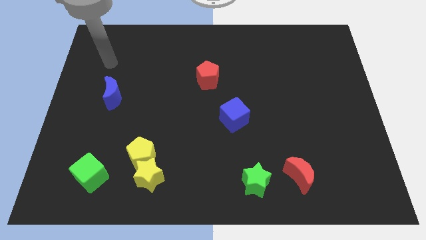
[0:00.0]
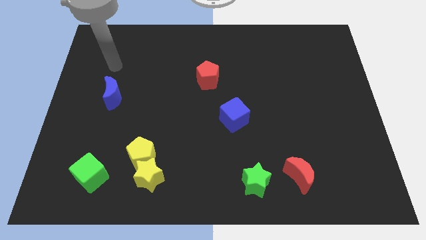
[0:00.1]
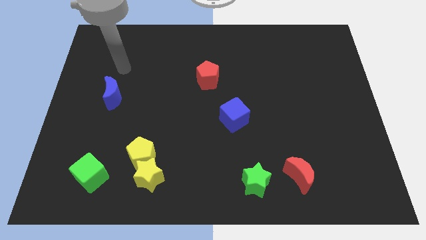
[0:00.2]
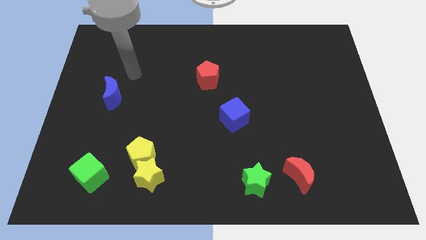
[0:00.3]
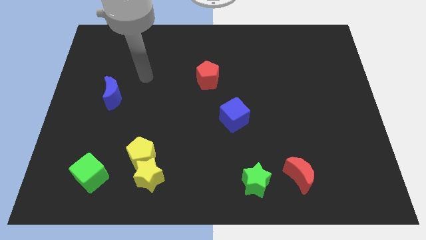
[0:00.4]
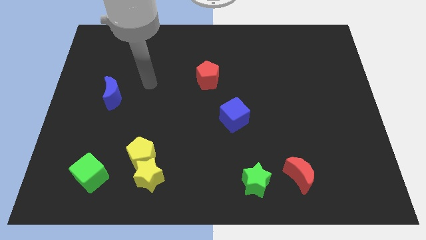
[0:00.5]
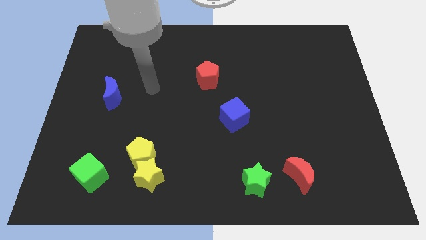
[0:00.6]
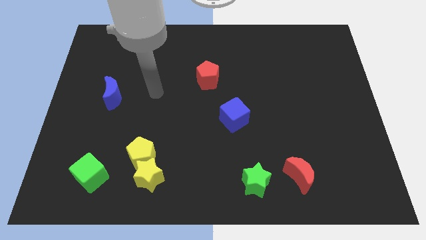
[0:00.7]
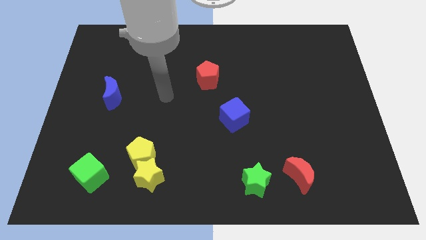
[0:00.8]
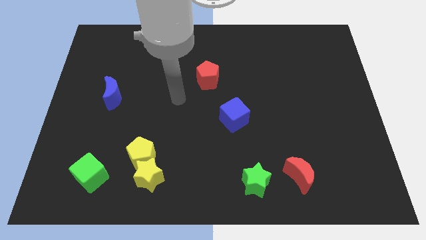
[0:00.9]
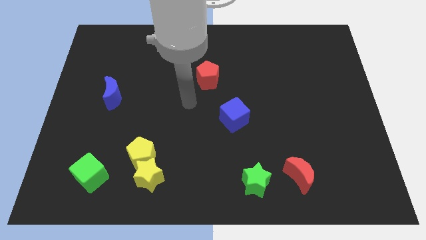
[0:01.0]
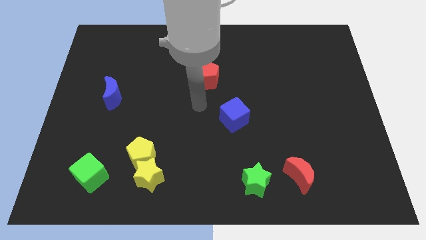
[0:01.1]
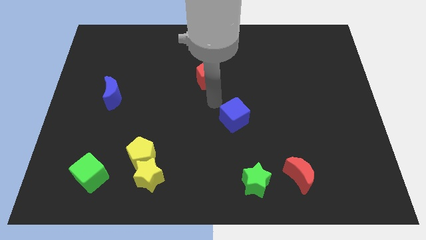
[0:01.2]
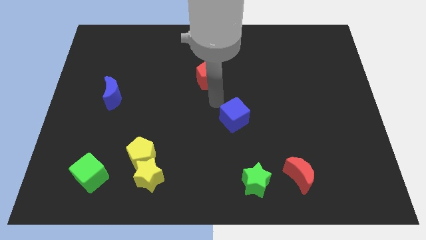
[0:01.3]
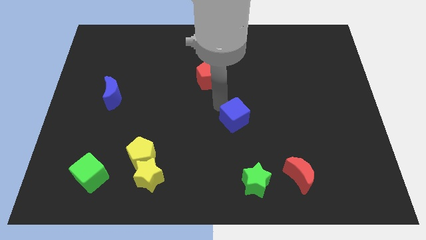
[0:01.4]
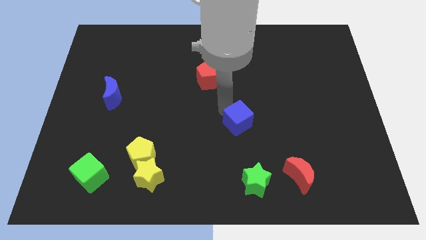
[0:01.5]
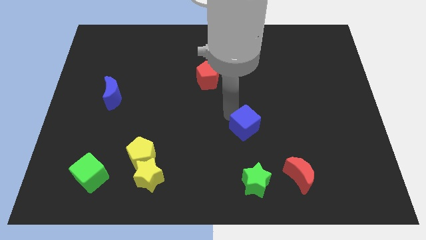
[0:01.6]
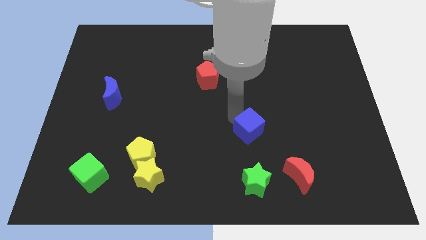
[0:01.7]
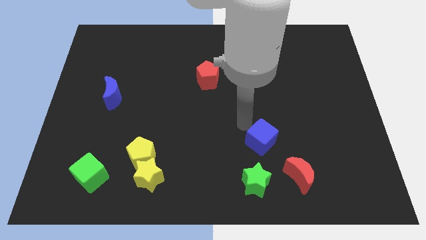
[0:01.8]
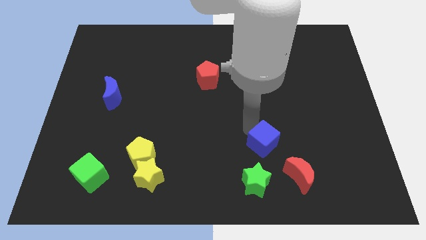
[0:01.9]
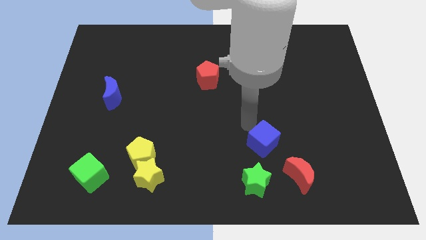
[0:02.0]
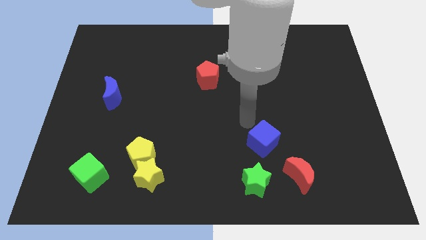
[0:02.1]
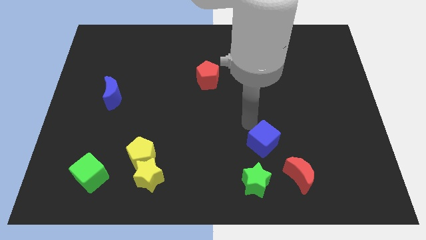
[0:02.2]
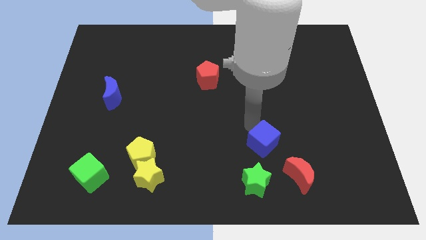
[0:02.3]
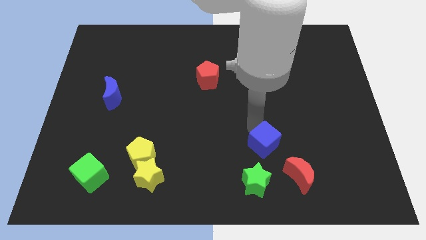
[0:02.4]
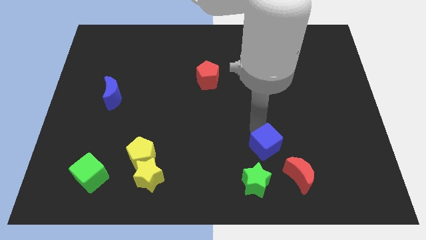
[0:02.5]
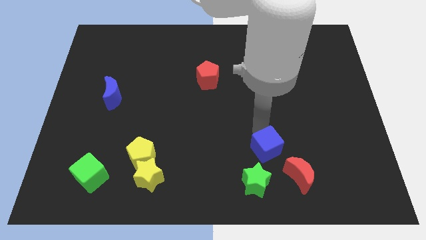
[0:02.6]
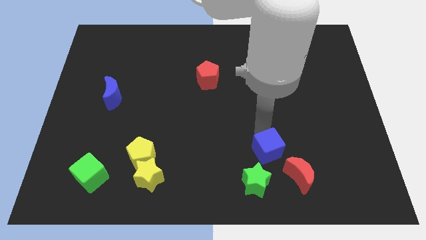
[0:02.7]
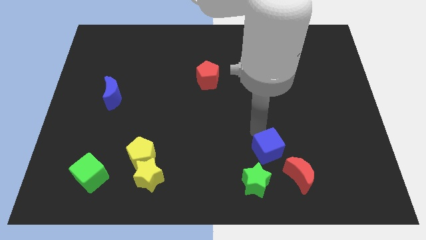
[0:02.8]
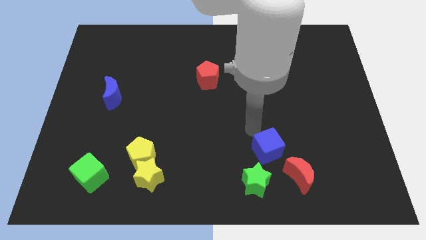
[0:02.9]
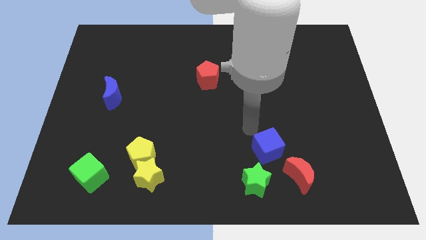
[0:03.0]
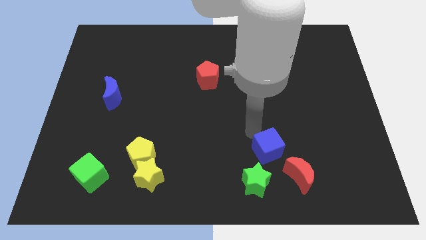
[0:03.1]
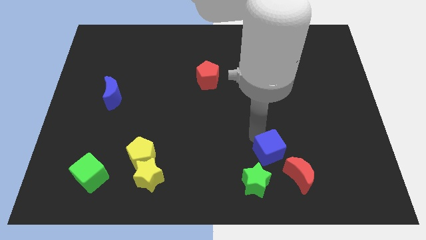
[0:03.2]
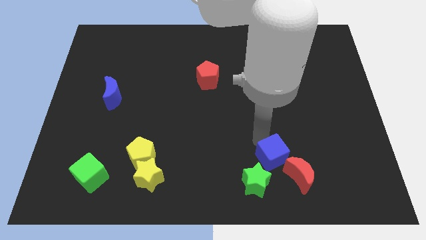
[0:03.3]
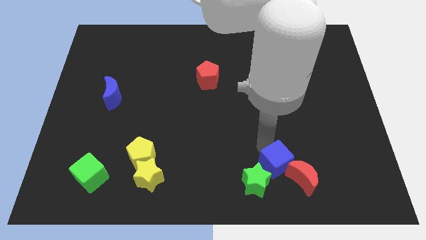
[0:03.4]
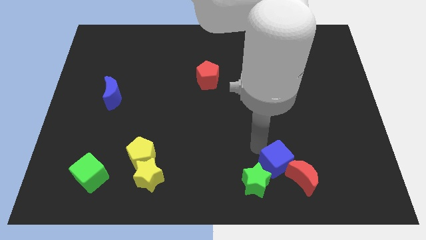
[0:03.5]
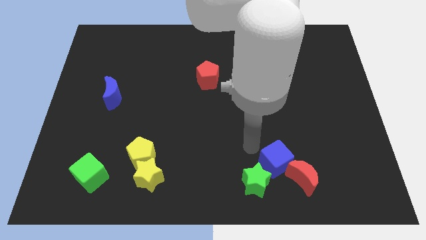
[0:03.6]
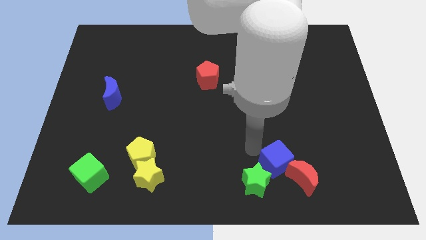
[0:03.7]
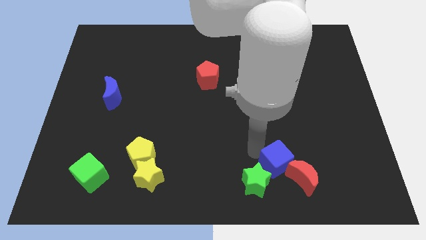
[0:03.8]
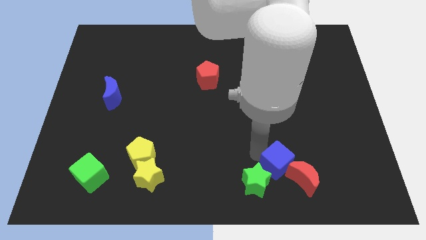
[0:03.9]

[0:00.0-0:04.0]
push the blue cube next to the red moon

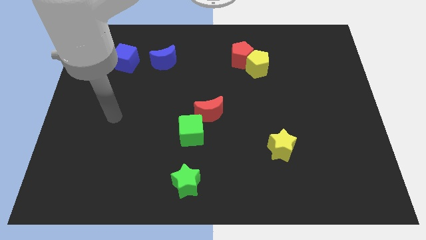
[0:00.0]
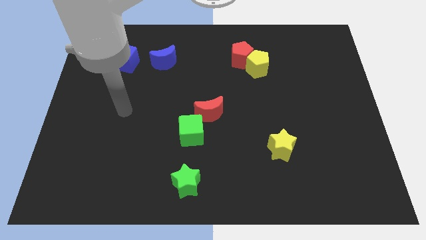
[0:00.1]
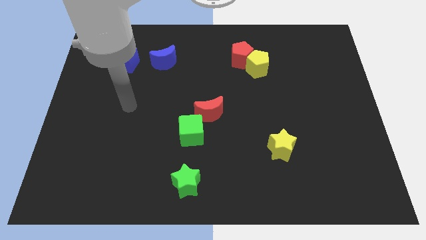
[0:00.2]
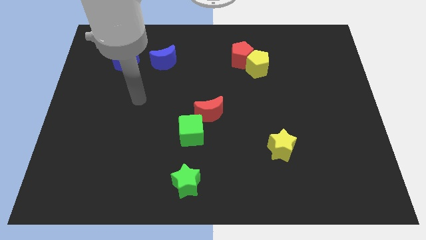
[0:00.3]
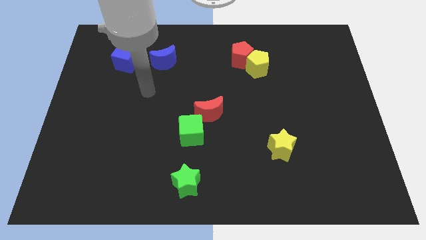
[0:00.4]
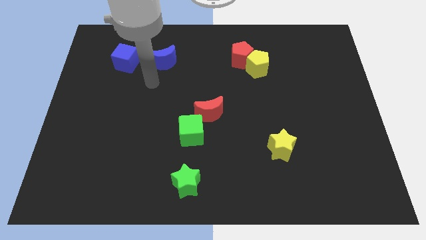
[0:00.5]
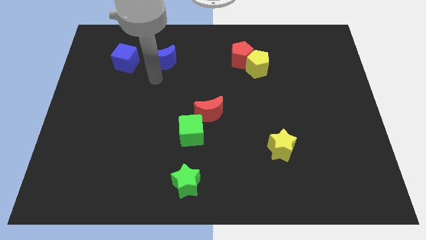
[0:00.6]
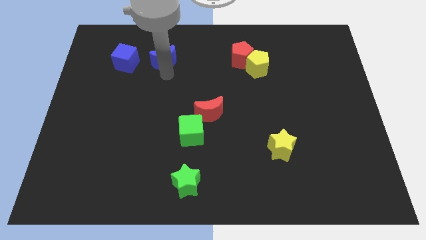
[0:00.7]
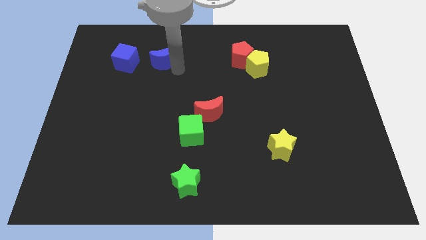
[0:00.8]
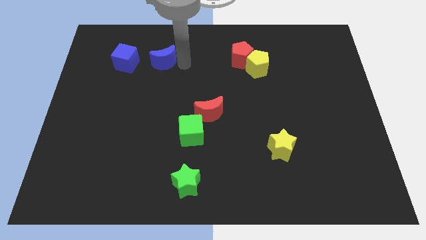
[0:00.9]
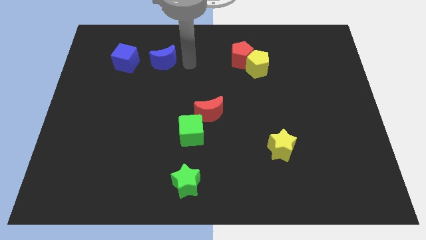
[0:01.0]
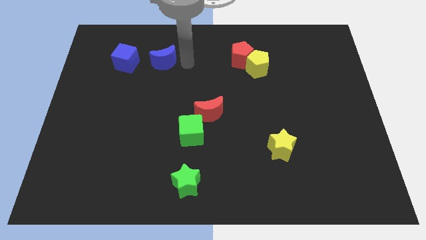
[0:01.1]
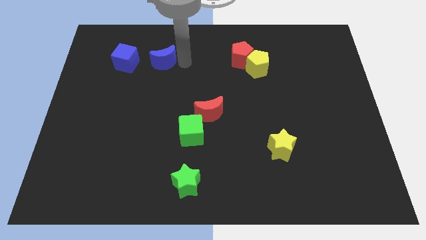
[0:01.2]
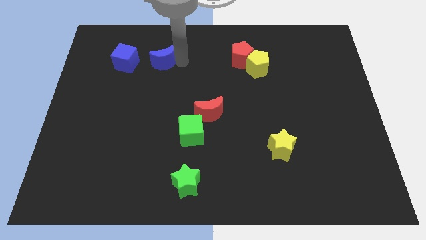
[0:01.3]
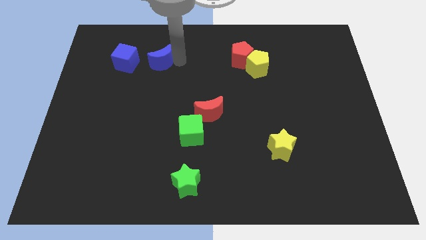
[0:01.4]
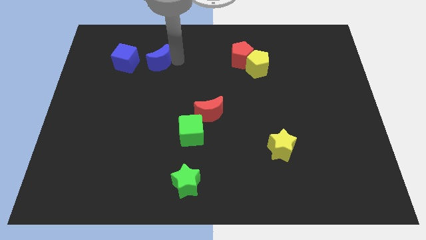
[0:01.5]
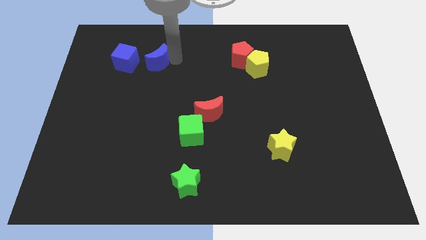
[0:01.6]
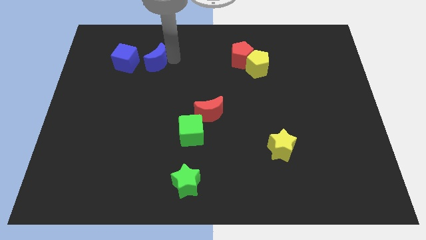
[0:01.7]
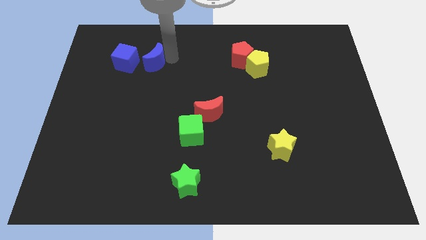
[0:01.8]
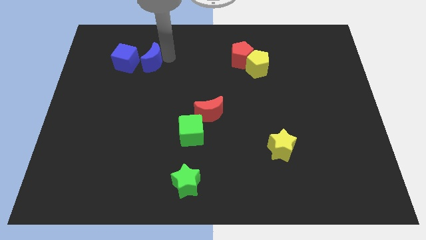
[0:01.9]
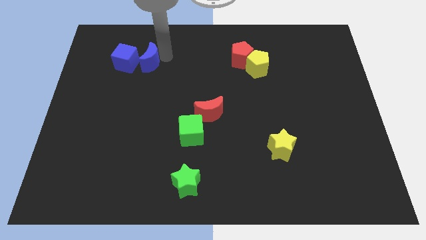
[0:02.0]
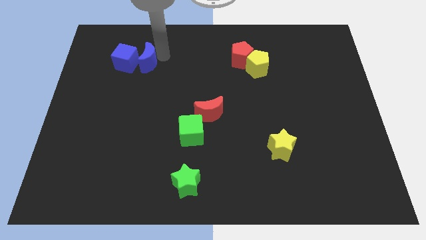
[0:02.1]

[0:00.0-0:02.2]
move the blue moon close to the blue cube

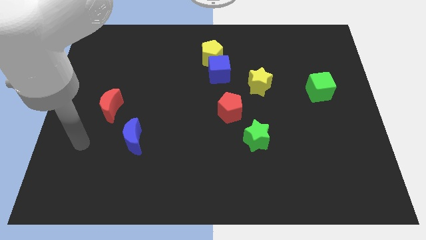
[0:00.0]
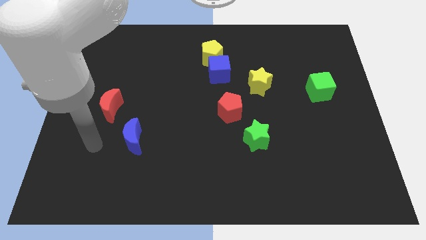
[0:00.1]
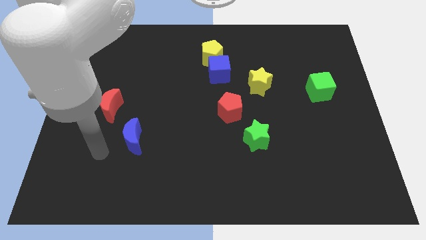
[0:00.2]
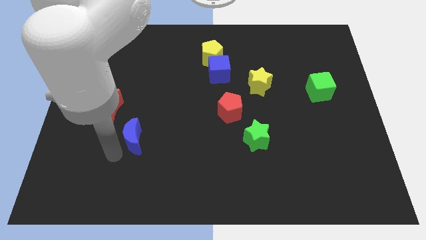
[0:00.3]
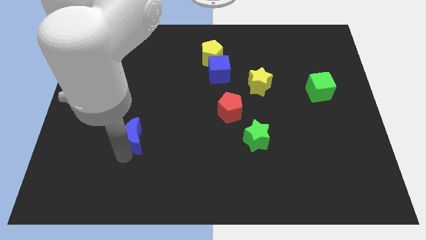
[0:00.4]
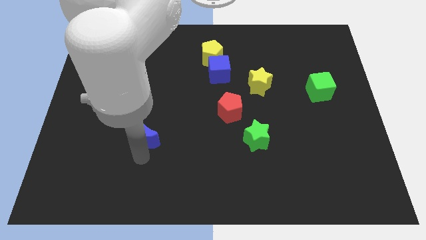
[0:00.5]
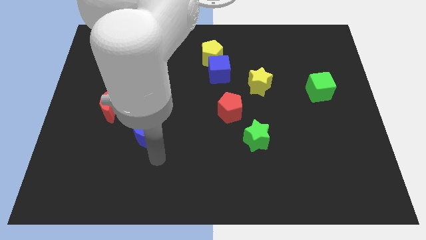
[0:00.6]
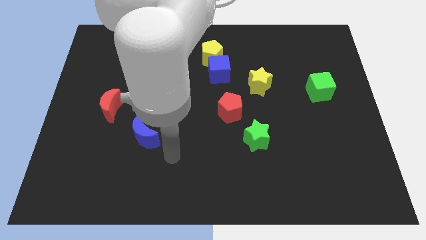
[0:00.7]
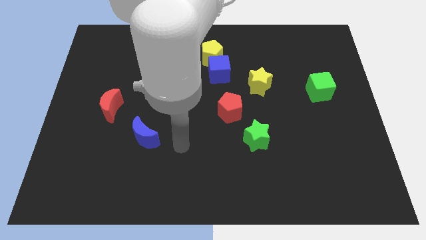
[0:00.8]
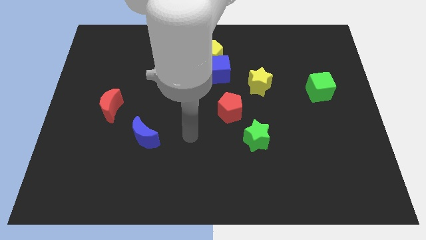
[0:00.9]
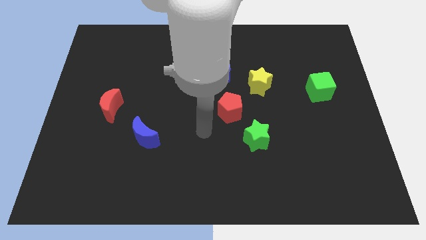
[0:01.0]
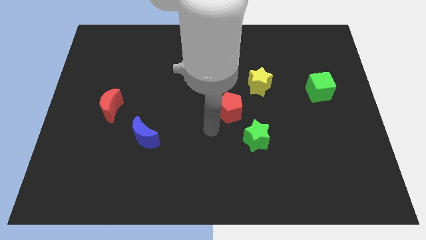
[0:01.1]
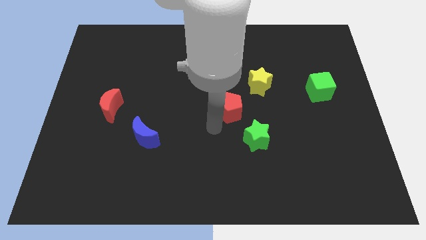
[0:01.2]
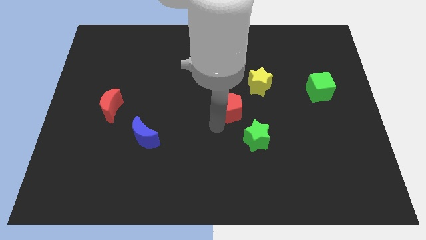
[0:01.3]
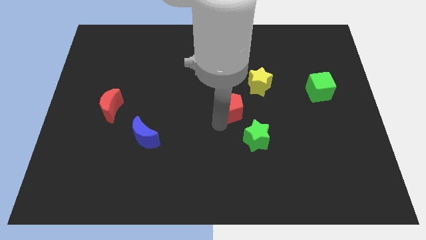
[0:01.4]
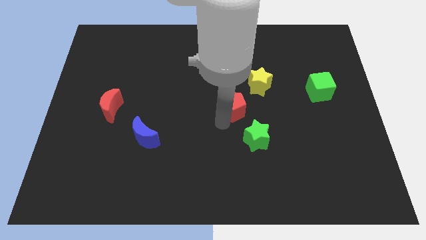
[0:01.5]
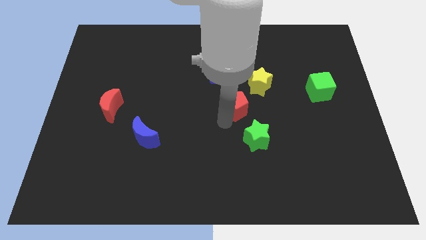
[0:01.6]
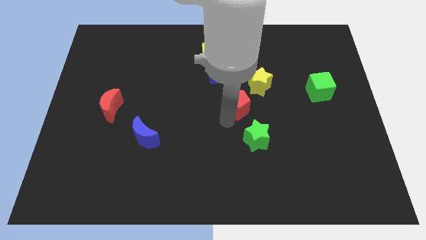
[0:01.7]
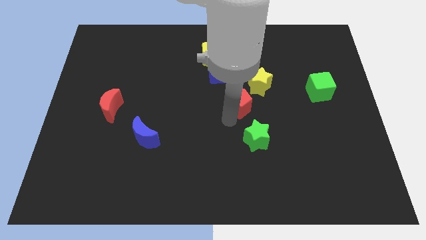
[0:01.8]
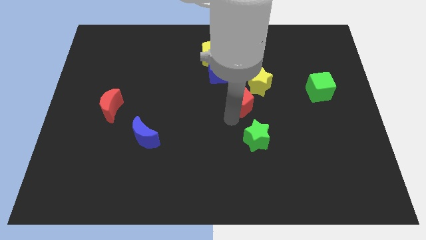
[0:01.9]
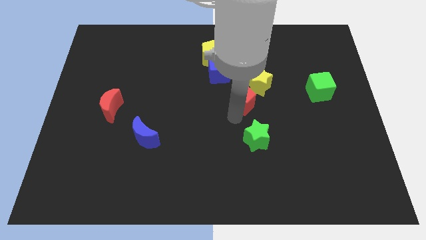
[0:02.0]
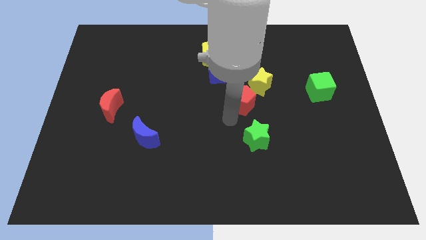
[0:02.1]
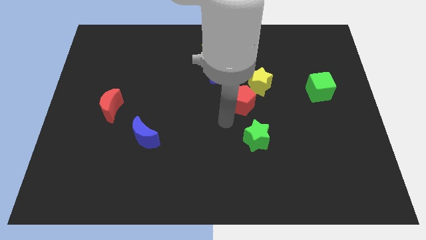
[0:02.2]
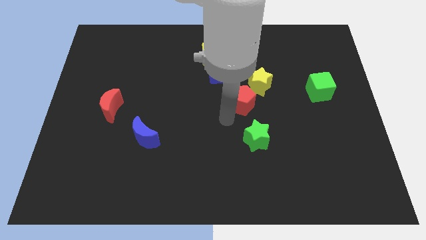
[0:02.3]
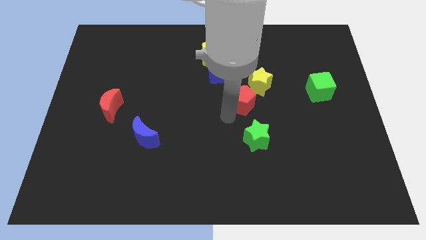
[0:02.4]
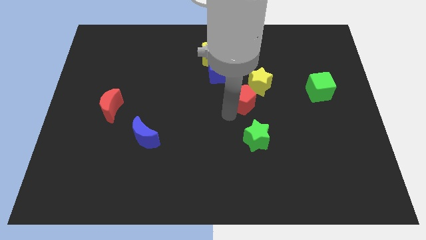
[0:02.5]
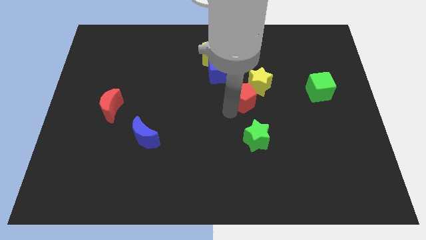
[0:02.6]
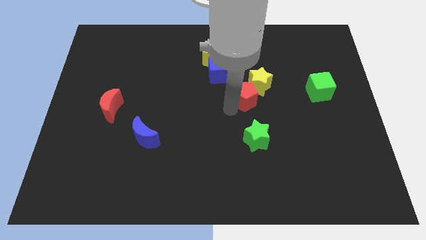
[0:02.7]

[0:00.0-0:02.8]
put the red pentagon to the yellow star
